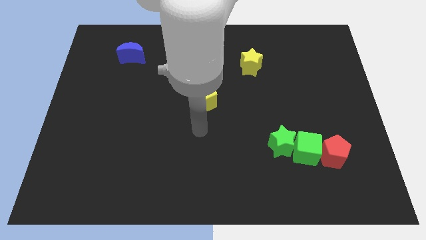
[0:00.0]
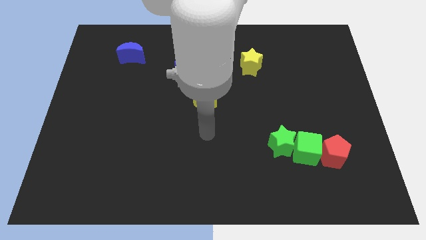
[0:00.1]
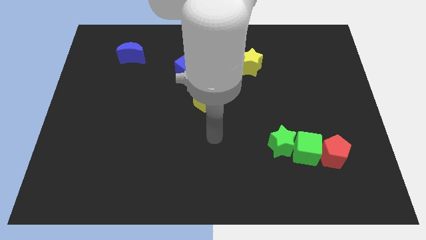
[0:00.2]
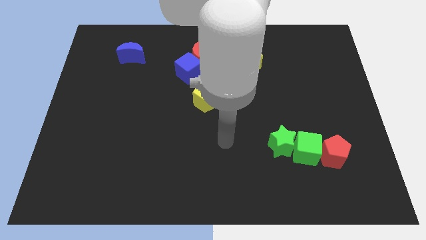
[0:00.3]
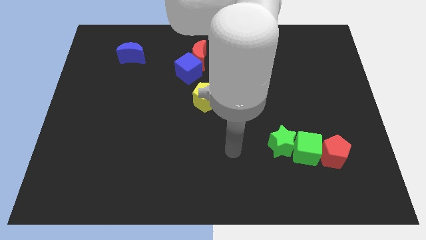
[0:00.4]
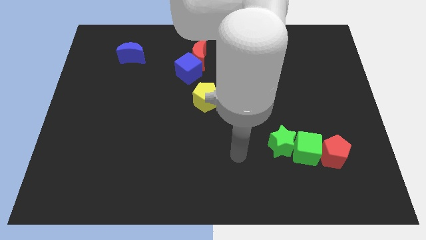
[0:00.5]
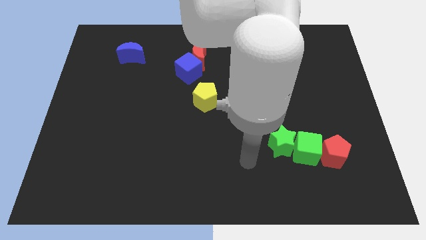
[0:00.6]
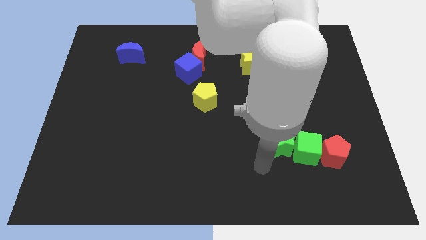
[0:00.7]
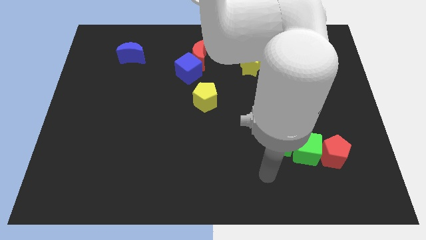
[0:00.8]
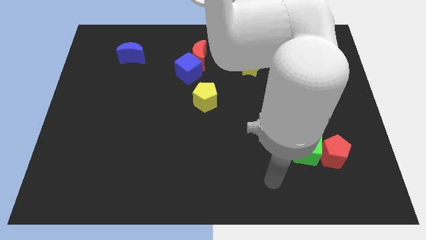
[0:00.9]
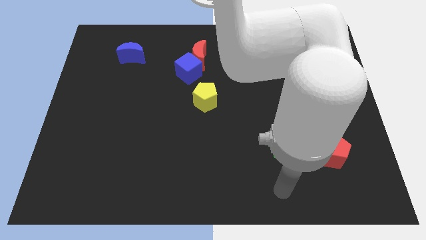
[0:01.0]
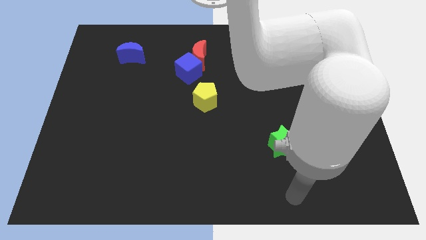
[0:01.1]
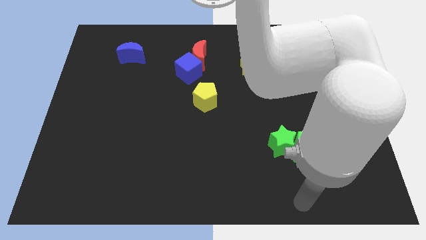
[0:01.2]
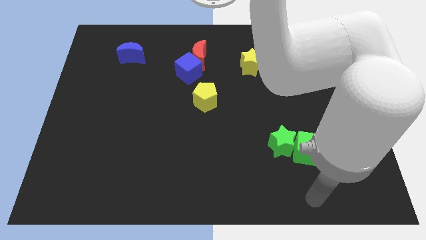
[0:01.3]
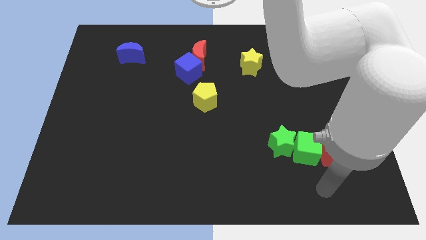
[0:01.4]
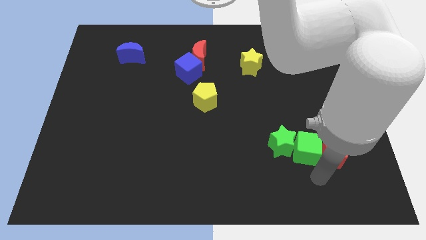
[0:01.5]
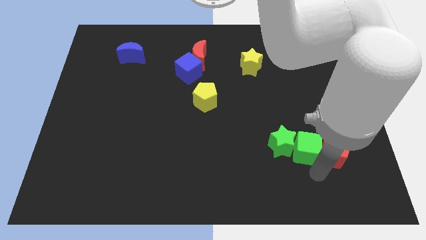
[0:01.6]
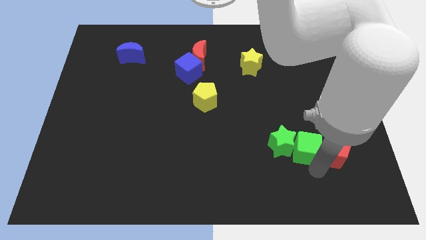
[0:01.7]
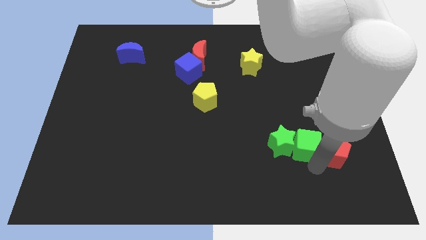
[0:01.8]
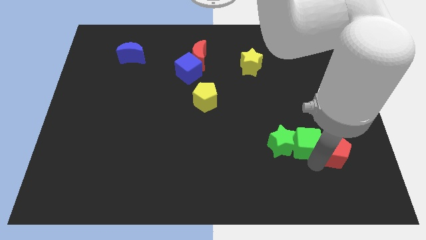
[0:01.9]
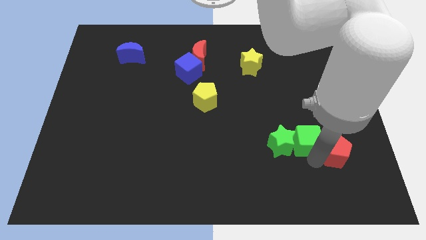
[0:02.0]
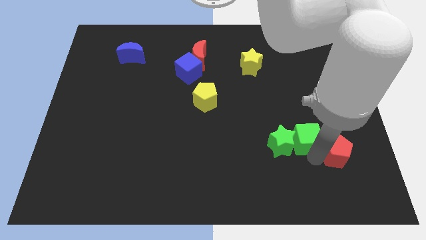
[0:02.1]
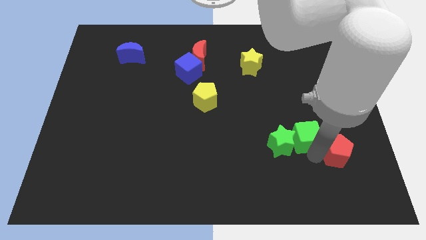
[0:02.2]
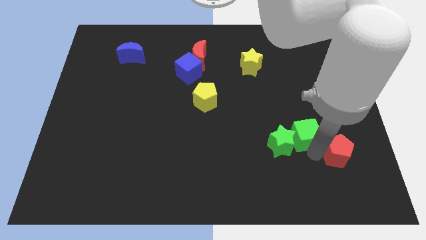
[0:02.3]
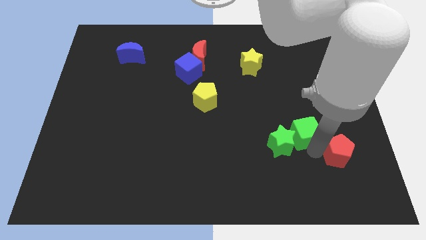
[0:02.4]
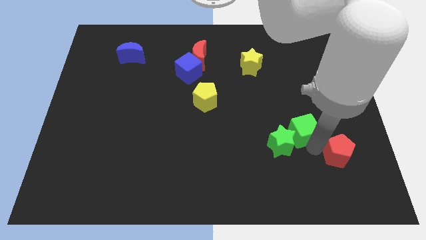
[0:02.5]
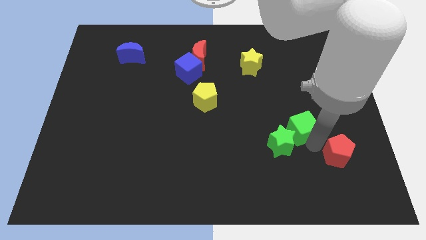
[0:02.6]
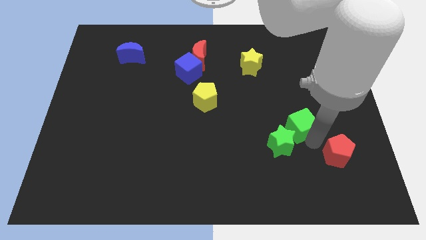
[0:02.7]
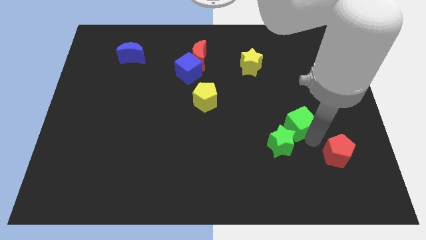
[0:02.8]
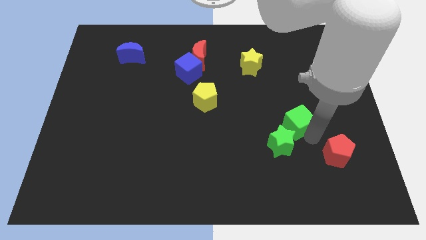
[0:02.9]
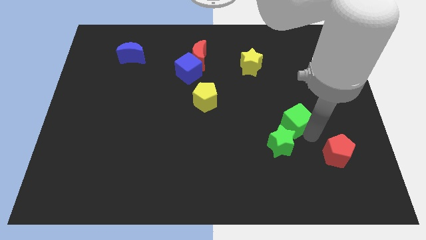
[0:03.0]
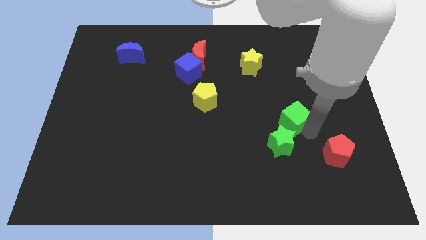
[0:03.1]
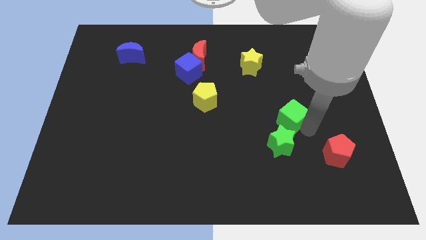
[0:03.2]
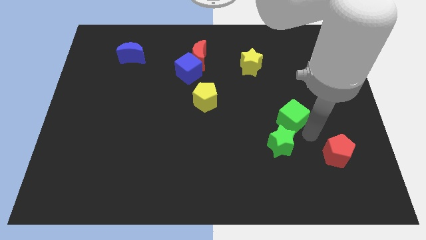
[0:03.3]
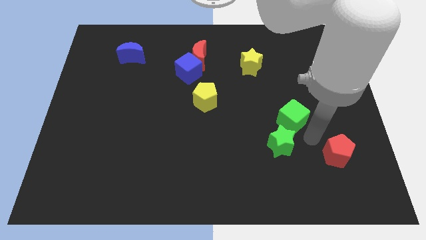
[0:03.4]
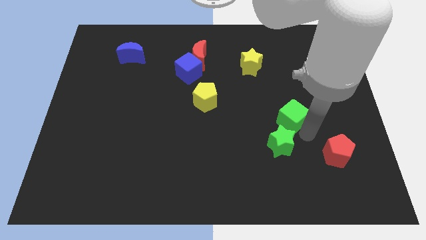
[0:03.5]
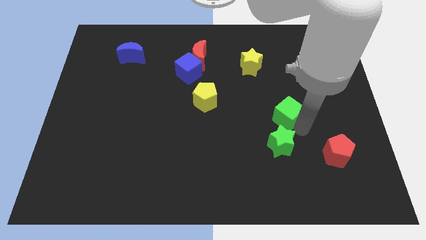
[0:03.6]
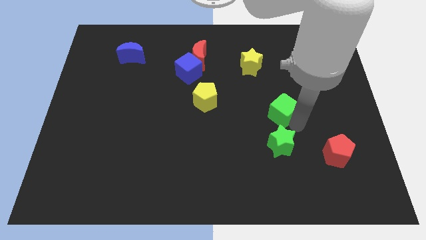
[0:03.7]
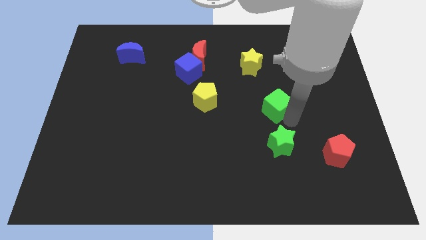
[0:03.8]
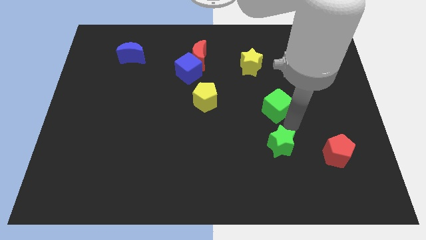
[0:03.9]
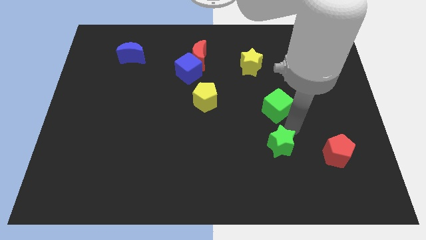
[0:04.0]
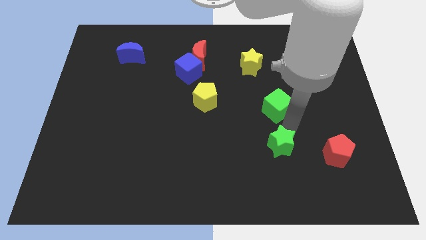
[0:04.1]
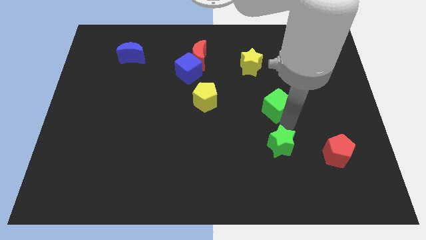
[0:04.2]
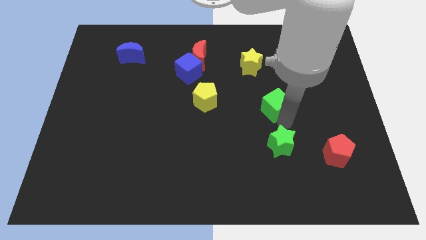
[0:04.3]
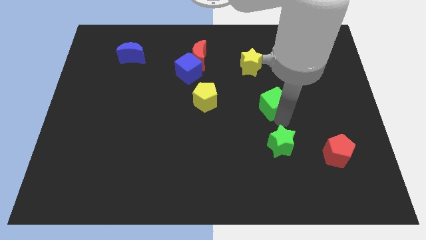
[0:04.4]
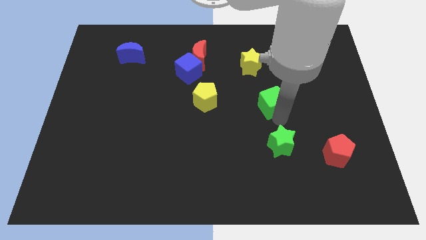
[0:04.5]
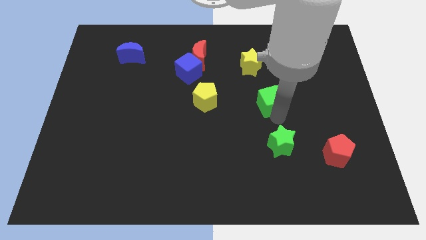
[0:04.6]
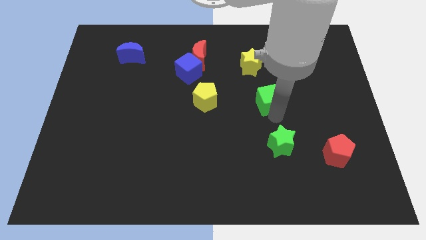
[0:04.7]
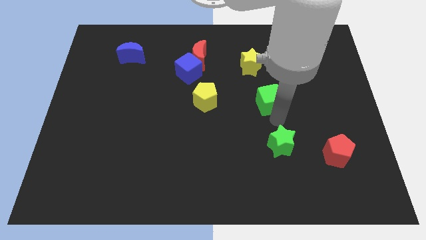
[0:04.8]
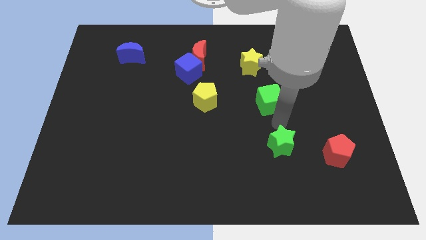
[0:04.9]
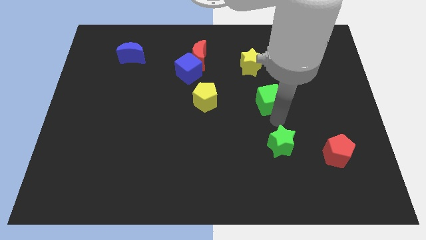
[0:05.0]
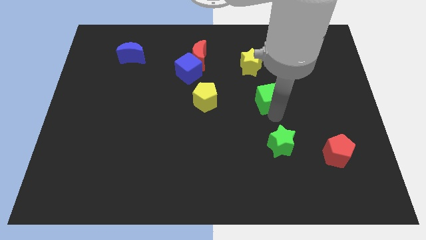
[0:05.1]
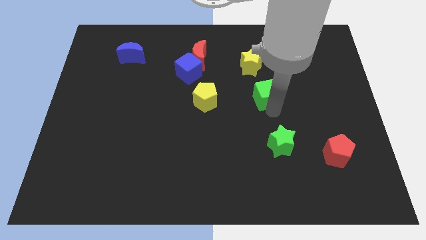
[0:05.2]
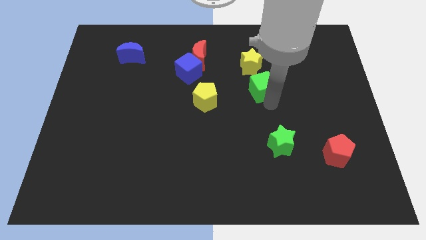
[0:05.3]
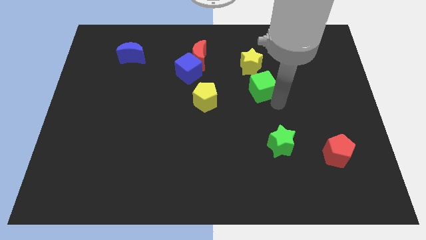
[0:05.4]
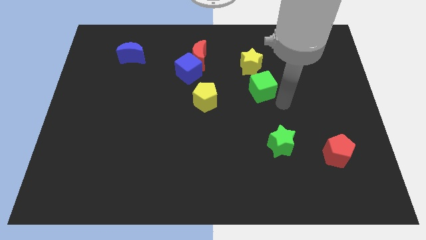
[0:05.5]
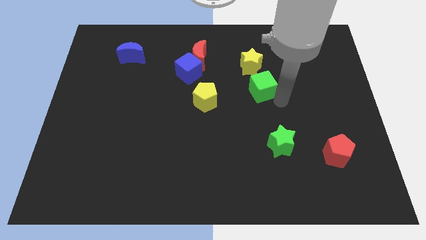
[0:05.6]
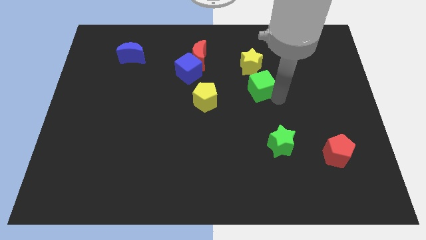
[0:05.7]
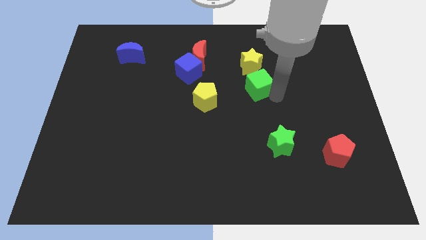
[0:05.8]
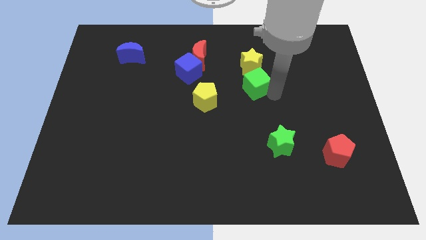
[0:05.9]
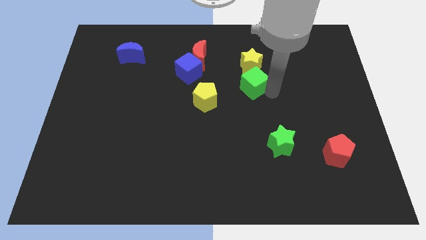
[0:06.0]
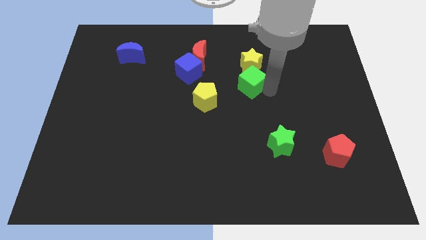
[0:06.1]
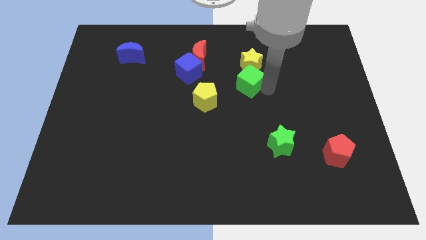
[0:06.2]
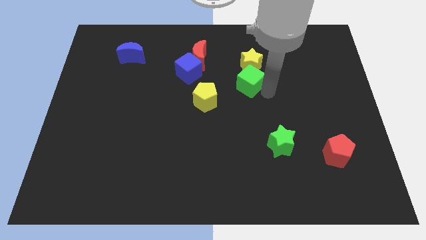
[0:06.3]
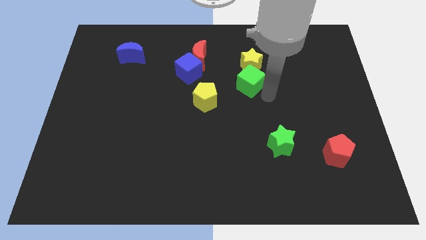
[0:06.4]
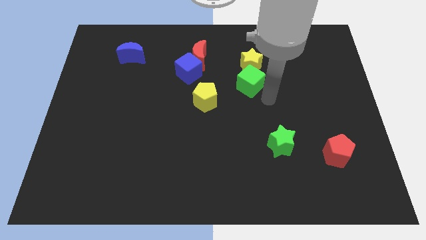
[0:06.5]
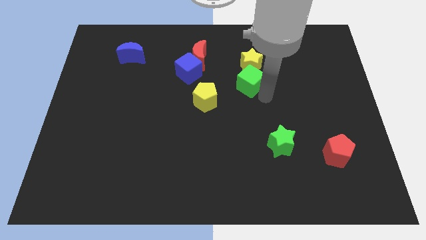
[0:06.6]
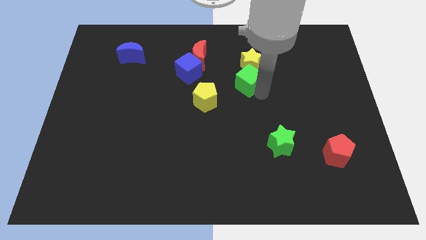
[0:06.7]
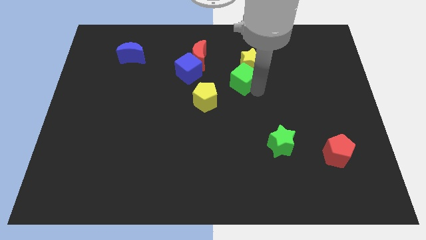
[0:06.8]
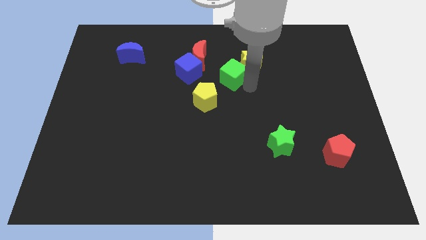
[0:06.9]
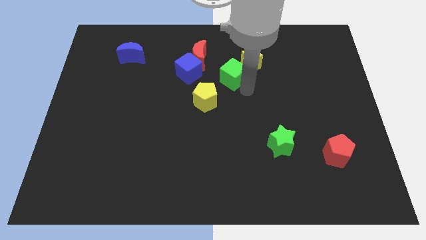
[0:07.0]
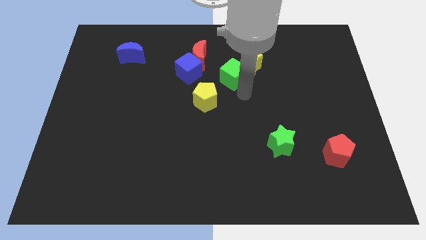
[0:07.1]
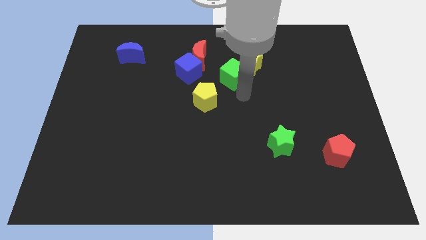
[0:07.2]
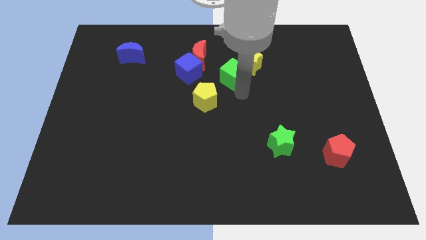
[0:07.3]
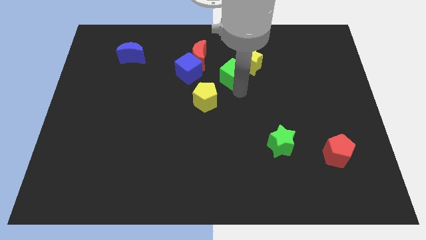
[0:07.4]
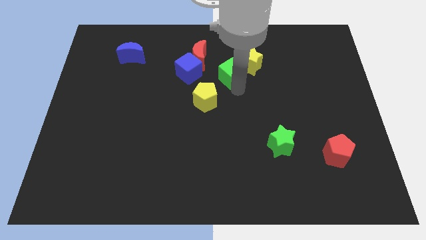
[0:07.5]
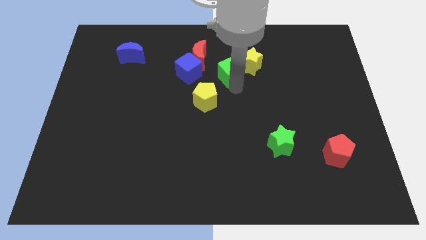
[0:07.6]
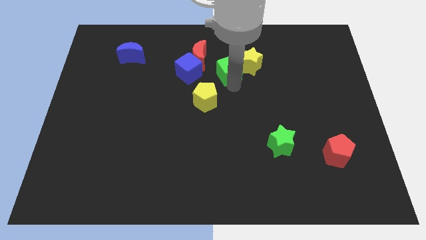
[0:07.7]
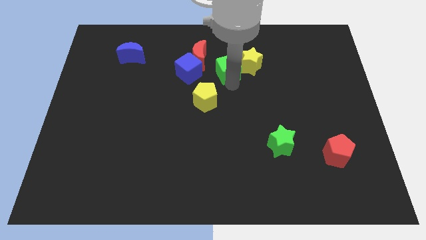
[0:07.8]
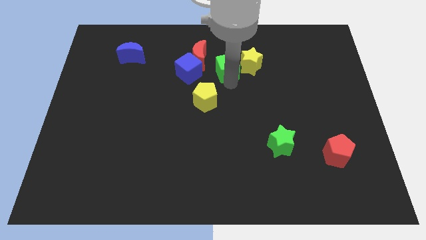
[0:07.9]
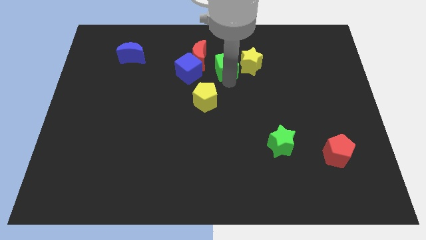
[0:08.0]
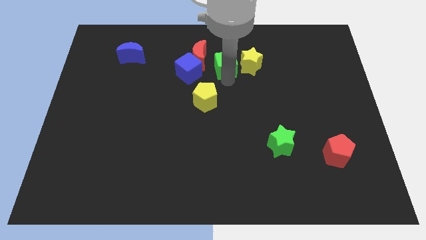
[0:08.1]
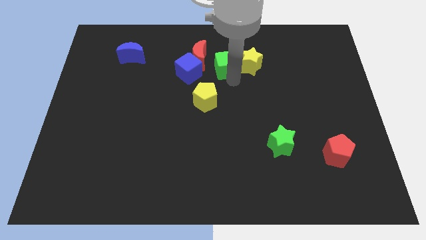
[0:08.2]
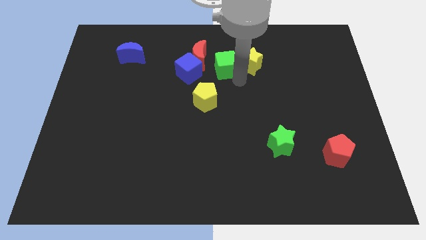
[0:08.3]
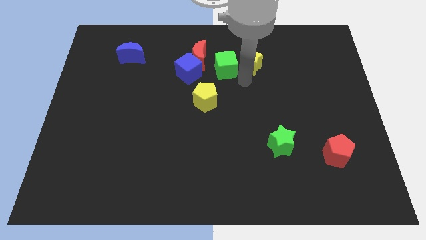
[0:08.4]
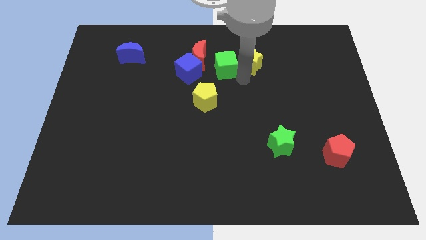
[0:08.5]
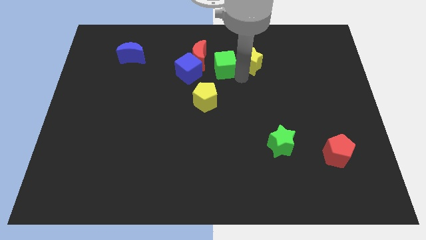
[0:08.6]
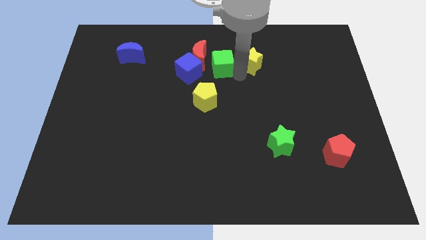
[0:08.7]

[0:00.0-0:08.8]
move the green cube to the top right side of the blue cube
